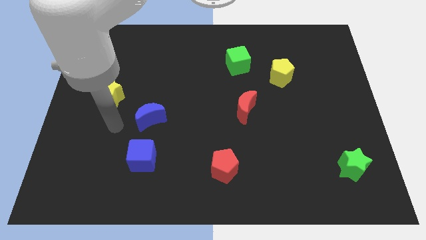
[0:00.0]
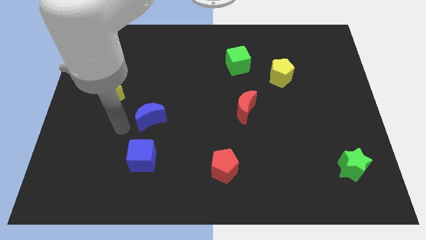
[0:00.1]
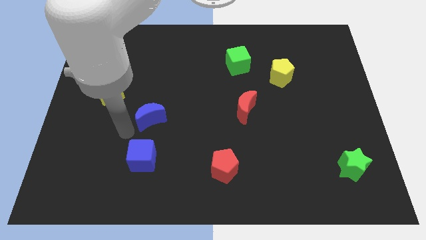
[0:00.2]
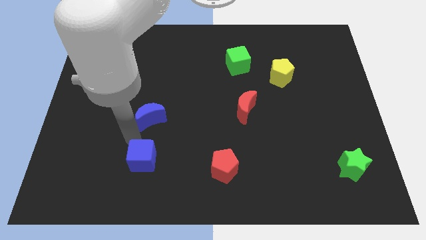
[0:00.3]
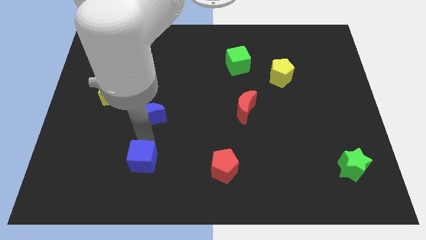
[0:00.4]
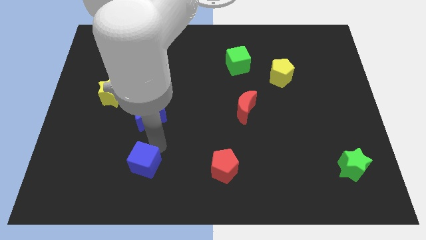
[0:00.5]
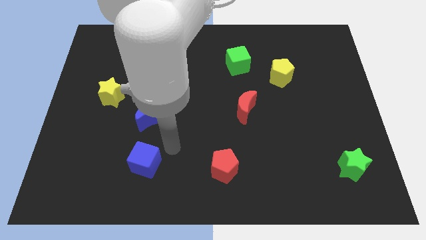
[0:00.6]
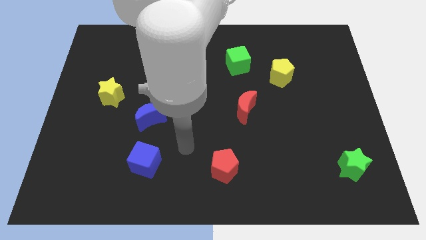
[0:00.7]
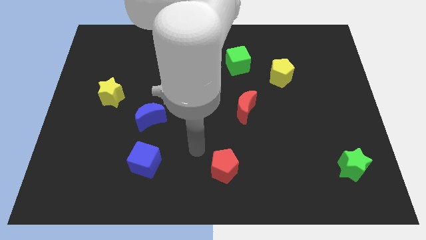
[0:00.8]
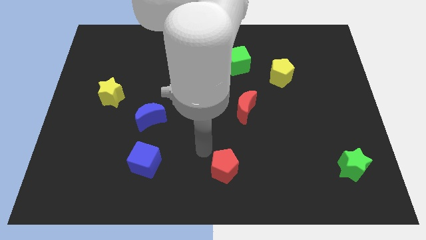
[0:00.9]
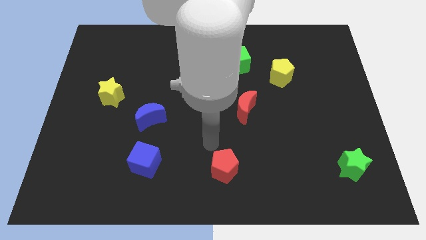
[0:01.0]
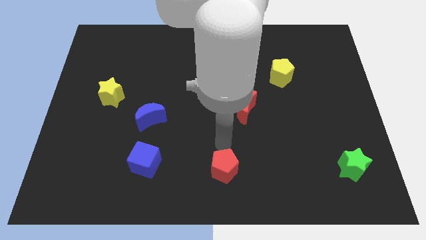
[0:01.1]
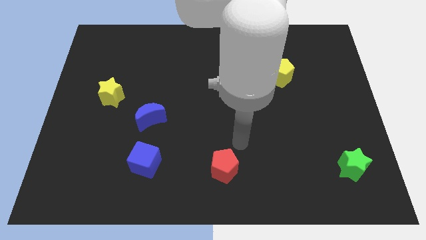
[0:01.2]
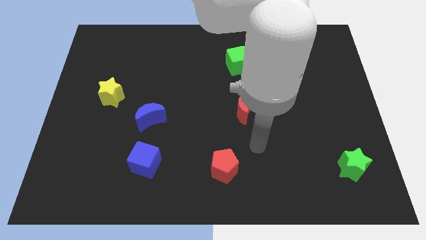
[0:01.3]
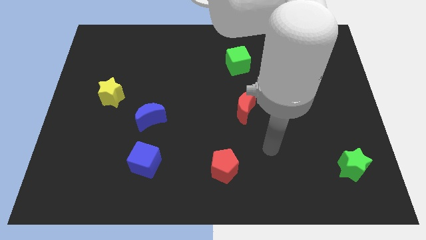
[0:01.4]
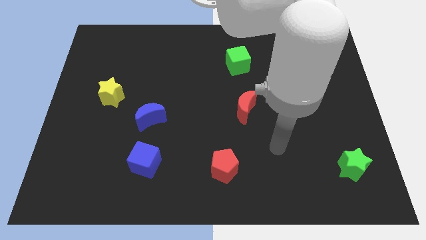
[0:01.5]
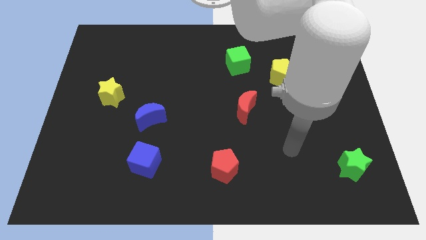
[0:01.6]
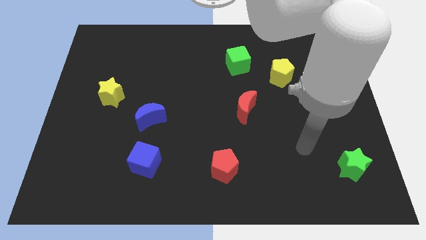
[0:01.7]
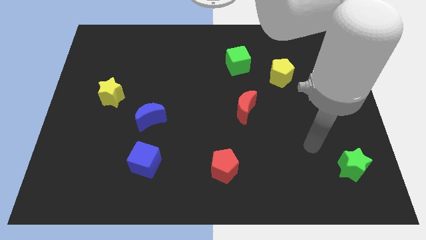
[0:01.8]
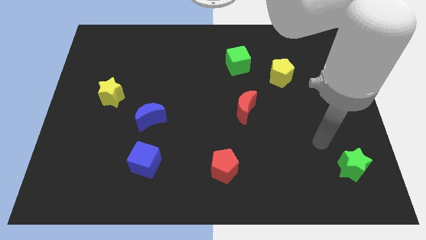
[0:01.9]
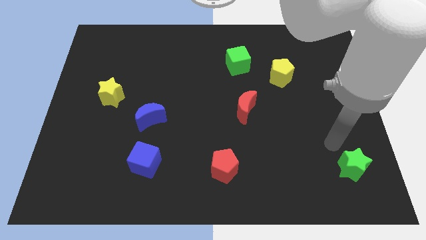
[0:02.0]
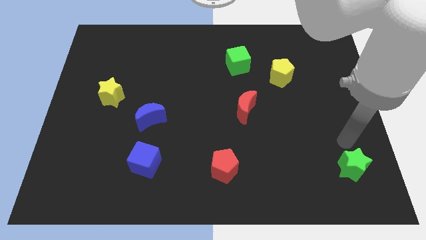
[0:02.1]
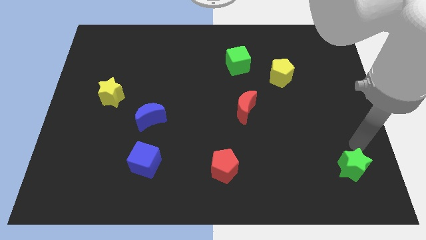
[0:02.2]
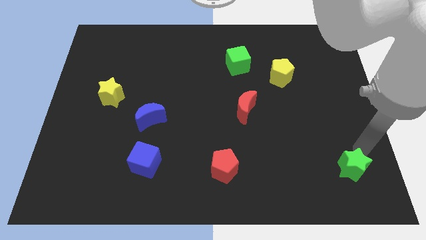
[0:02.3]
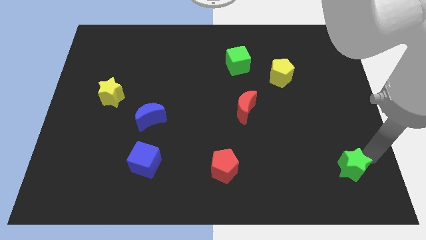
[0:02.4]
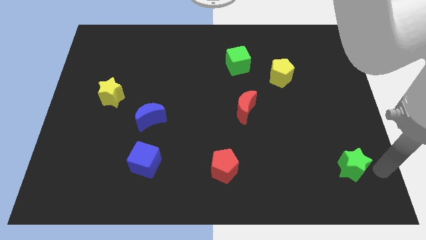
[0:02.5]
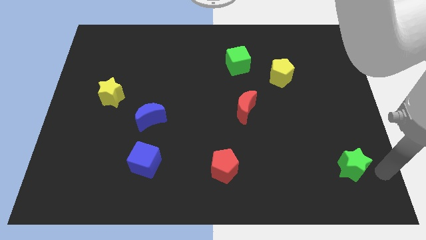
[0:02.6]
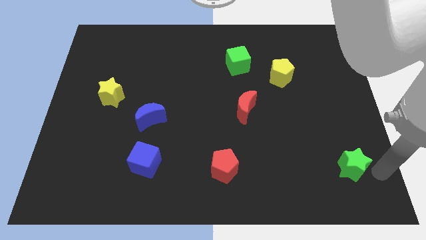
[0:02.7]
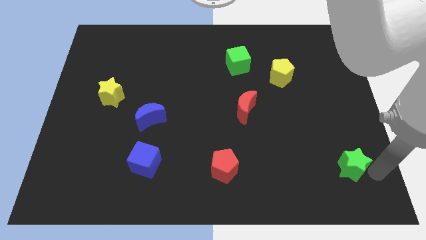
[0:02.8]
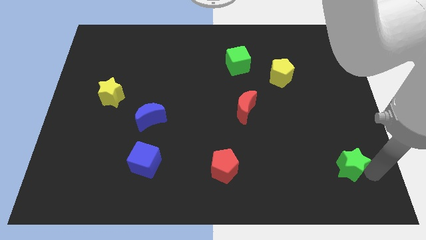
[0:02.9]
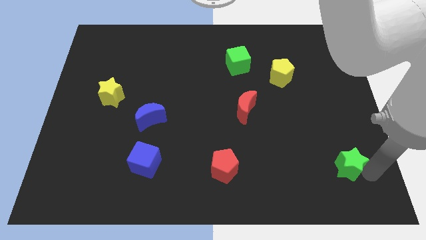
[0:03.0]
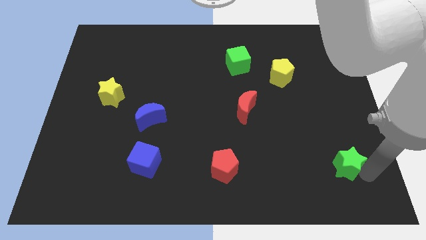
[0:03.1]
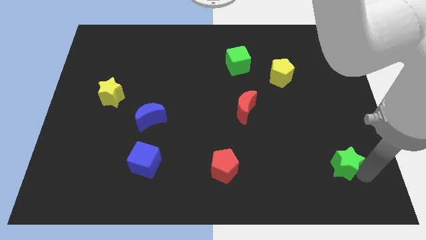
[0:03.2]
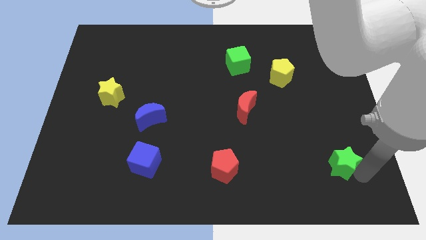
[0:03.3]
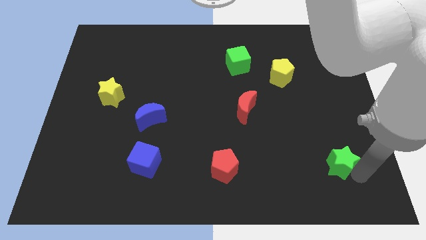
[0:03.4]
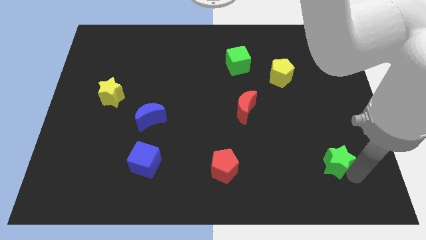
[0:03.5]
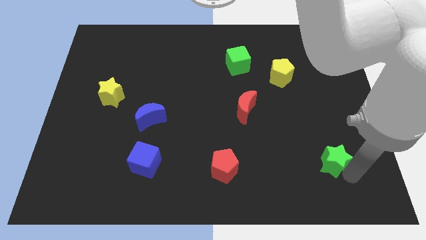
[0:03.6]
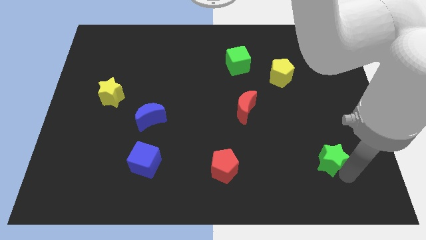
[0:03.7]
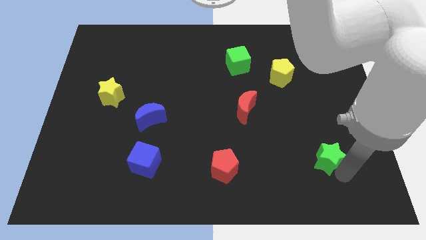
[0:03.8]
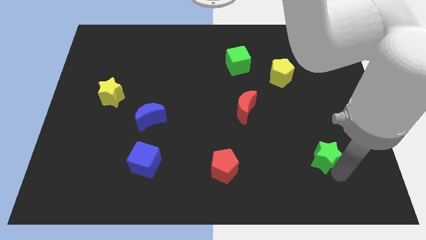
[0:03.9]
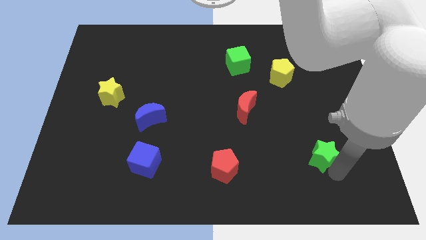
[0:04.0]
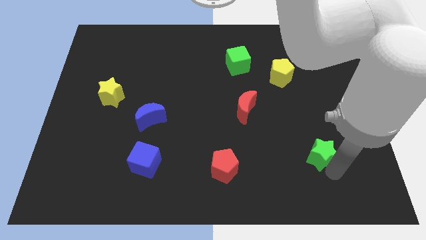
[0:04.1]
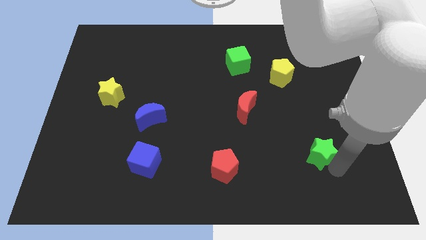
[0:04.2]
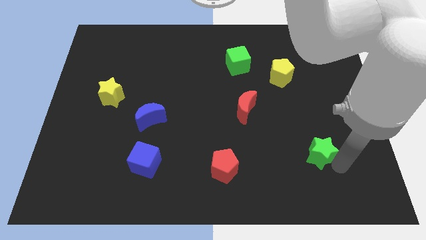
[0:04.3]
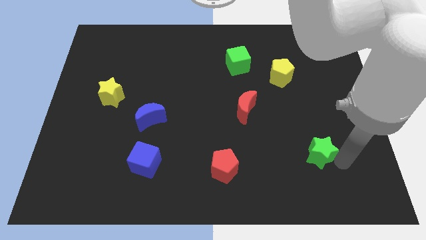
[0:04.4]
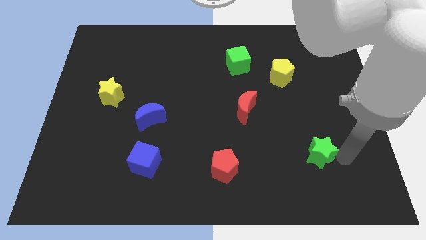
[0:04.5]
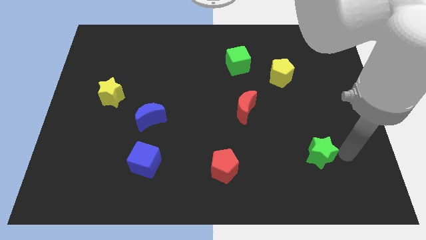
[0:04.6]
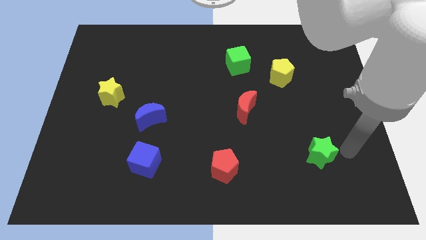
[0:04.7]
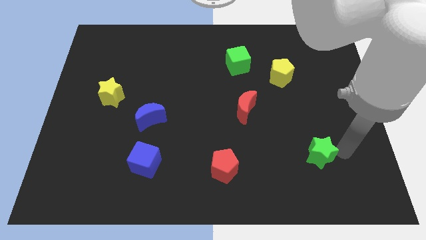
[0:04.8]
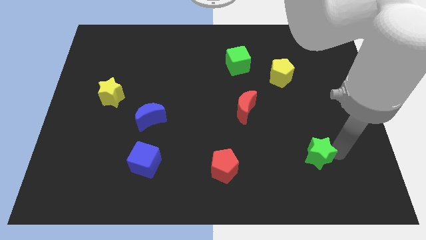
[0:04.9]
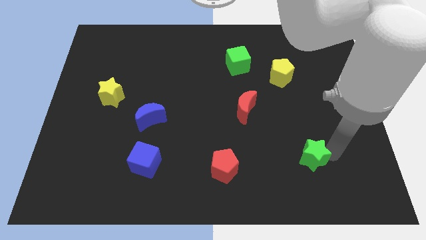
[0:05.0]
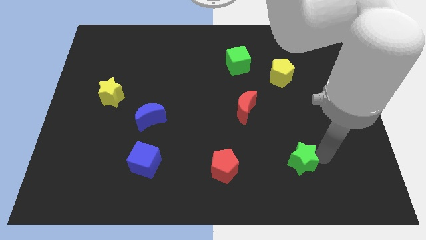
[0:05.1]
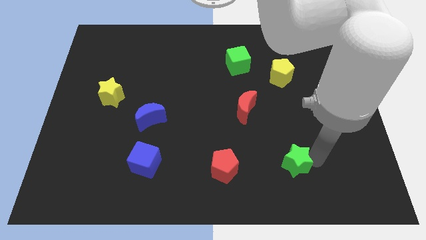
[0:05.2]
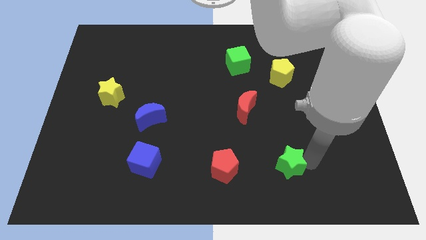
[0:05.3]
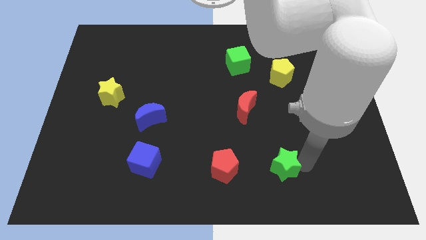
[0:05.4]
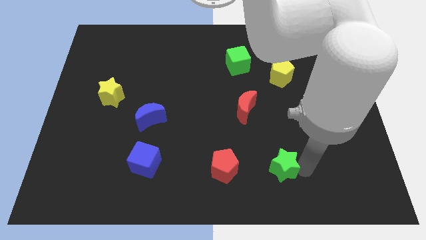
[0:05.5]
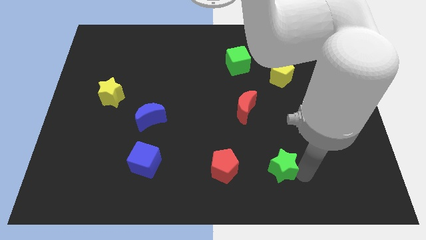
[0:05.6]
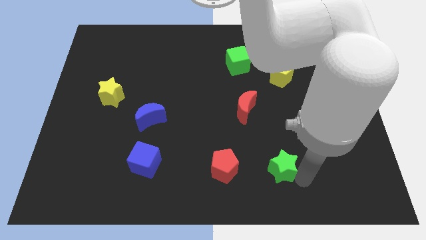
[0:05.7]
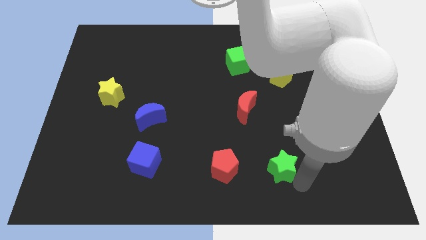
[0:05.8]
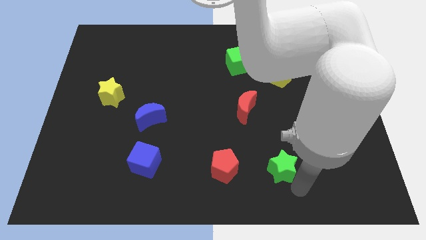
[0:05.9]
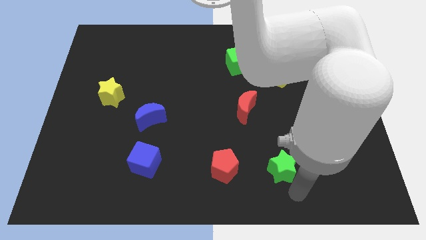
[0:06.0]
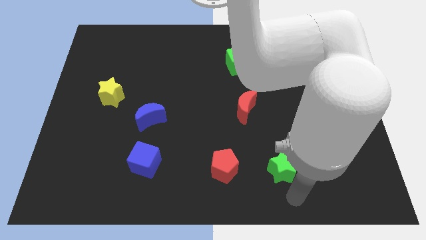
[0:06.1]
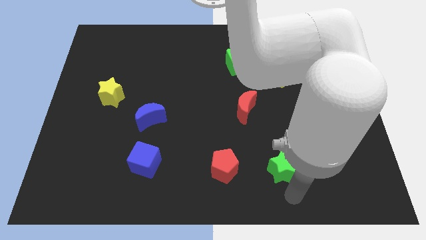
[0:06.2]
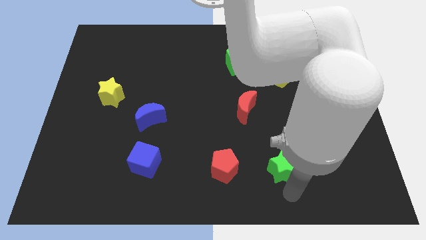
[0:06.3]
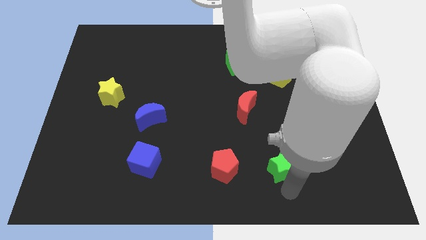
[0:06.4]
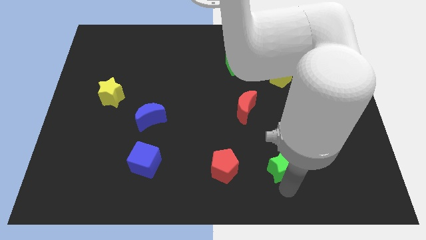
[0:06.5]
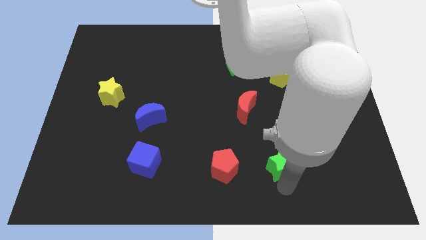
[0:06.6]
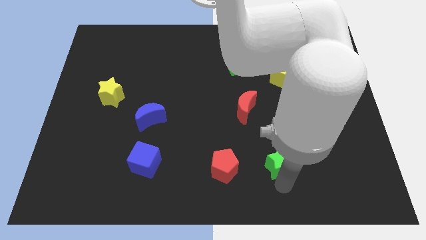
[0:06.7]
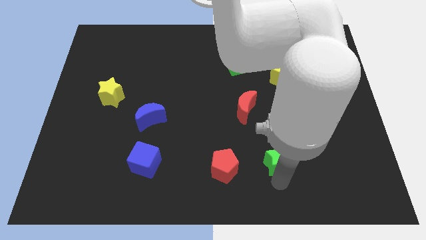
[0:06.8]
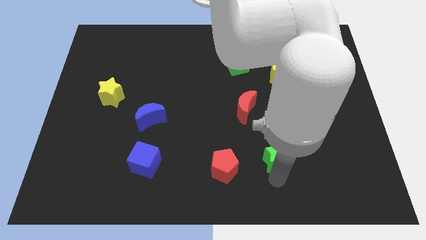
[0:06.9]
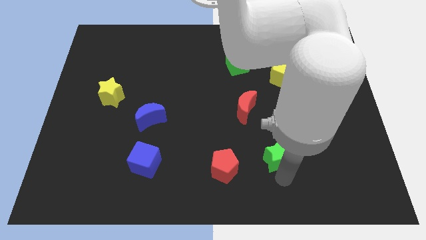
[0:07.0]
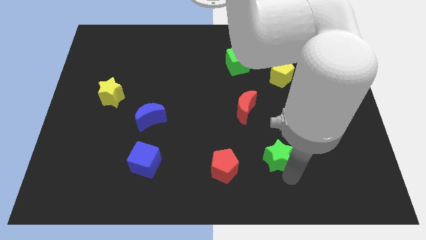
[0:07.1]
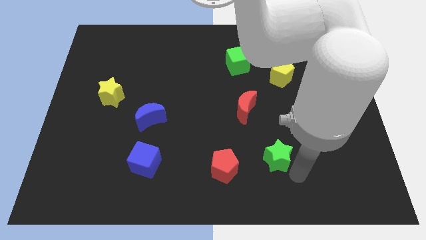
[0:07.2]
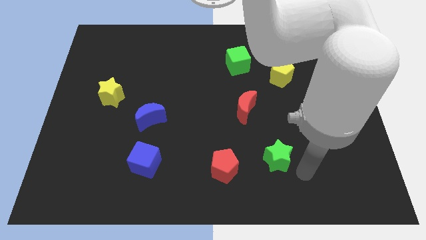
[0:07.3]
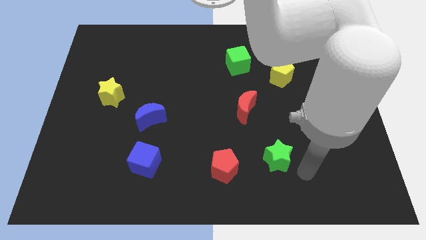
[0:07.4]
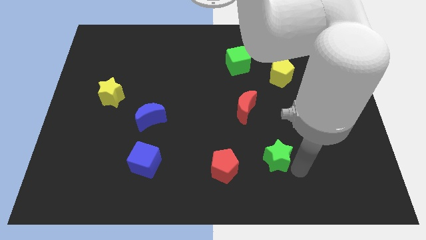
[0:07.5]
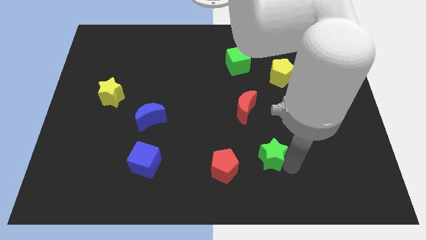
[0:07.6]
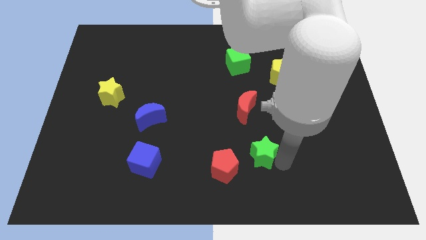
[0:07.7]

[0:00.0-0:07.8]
put the green star to the bottom of the red moon
